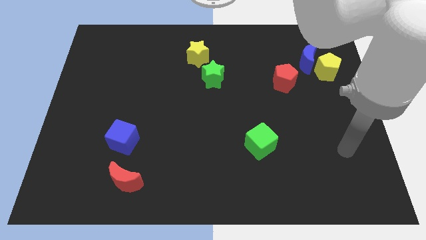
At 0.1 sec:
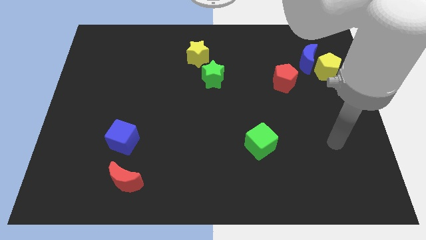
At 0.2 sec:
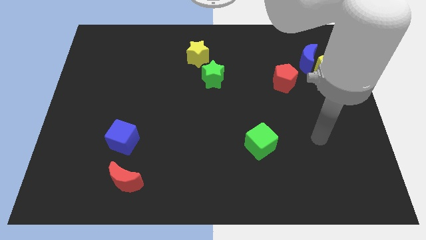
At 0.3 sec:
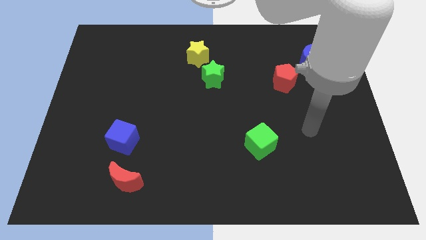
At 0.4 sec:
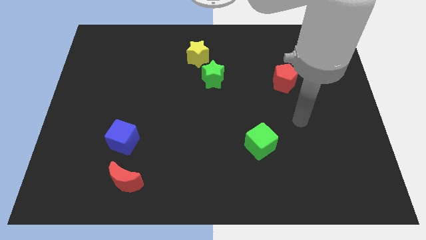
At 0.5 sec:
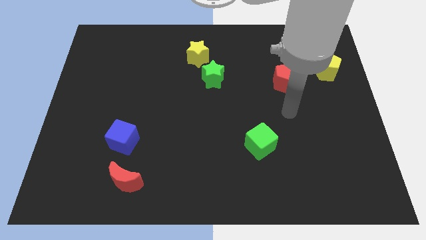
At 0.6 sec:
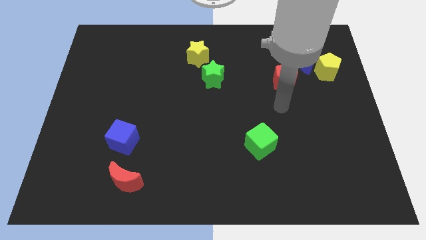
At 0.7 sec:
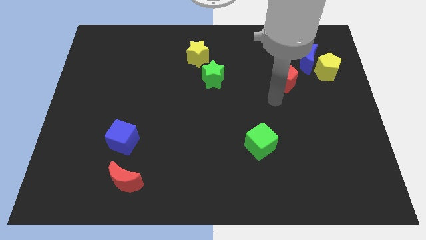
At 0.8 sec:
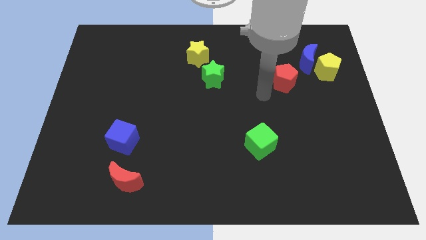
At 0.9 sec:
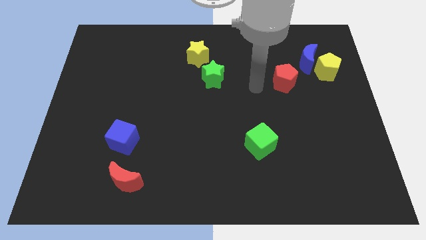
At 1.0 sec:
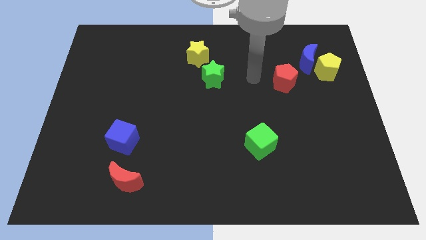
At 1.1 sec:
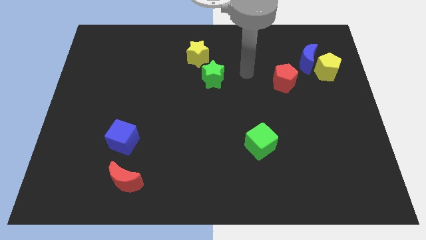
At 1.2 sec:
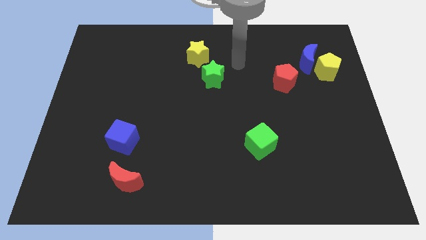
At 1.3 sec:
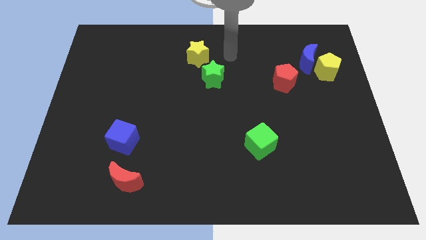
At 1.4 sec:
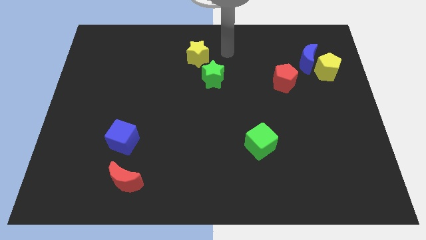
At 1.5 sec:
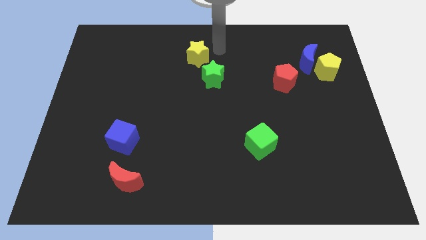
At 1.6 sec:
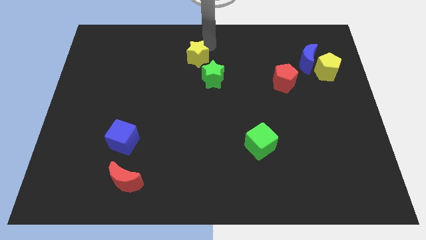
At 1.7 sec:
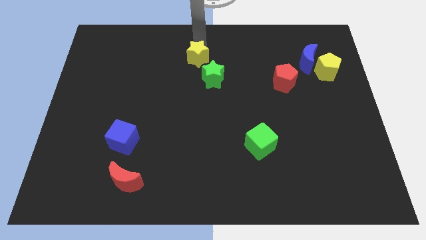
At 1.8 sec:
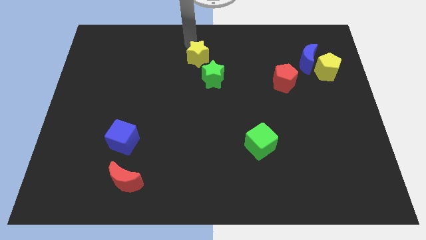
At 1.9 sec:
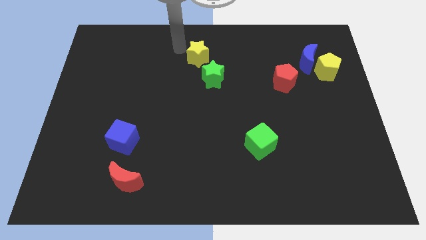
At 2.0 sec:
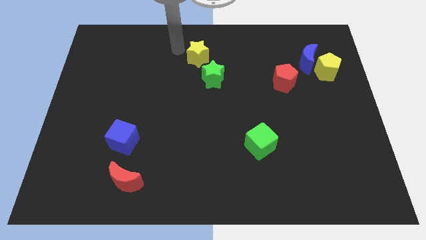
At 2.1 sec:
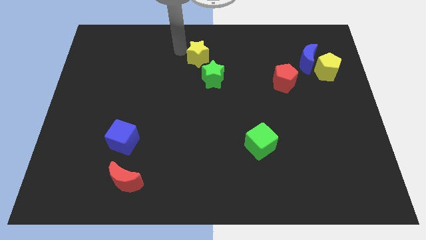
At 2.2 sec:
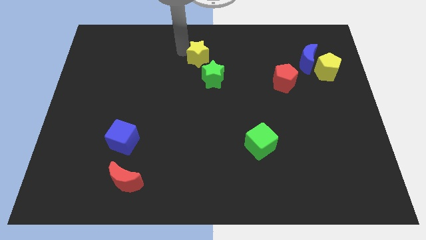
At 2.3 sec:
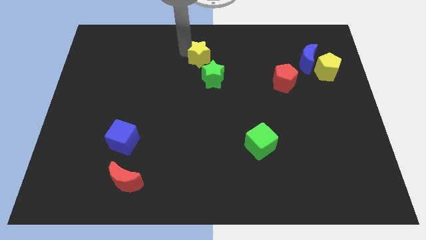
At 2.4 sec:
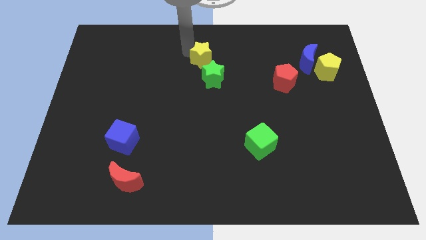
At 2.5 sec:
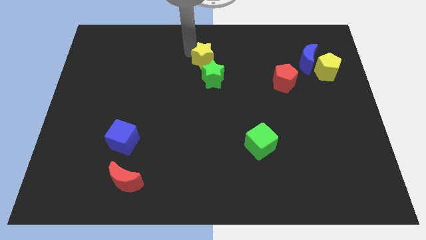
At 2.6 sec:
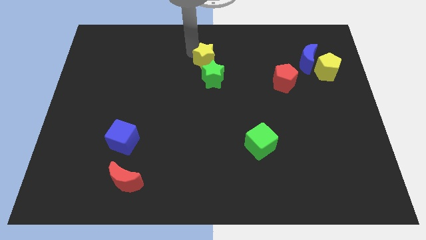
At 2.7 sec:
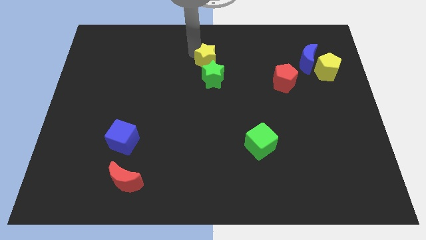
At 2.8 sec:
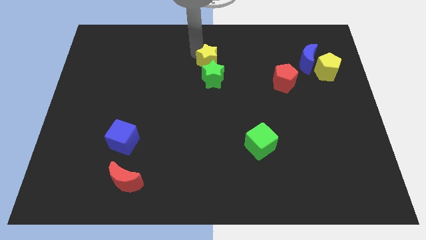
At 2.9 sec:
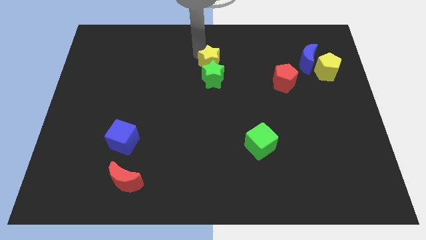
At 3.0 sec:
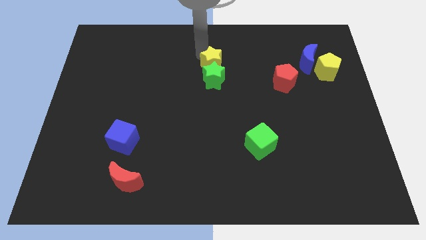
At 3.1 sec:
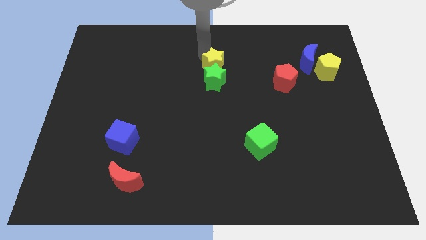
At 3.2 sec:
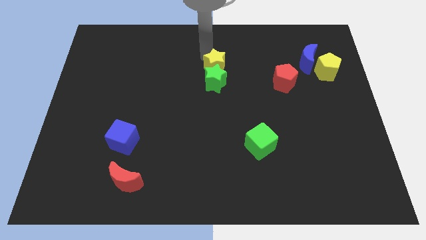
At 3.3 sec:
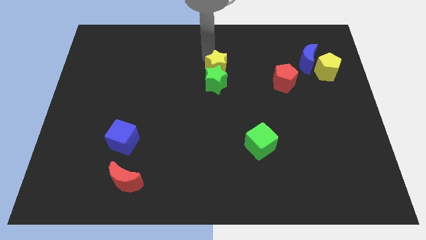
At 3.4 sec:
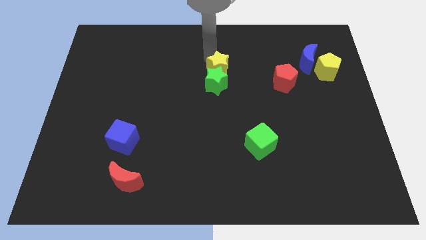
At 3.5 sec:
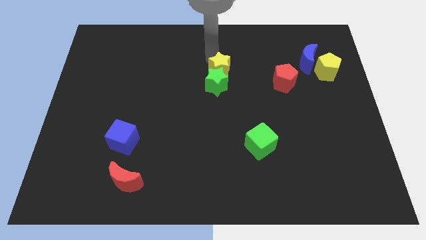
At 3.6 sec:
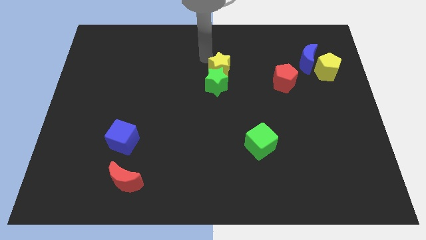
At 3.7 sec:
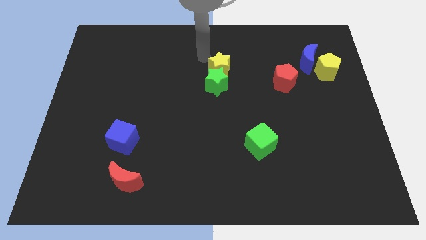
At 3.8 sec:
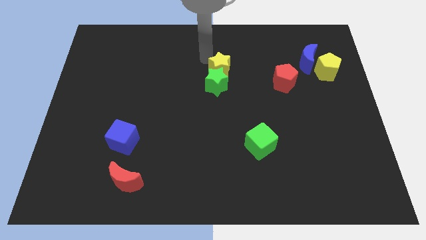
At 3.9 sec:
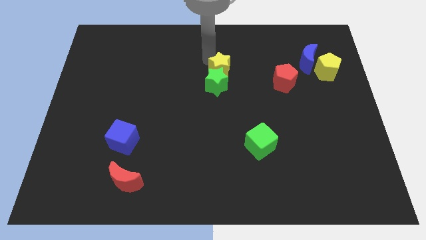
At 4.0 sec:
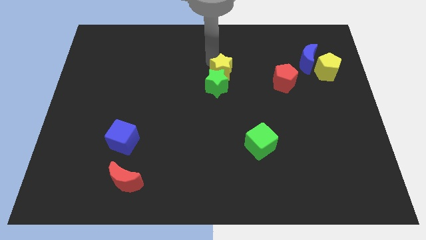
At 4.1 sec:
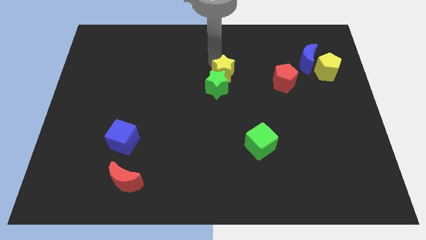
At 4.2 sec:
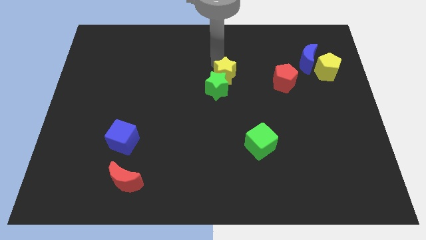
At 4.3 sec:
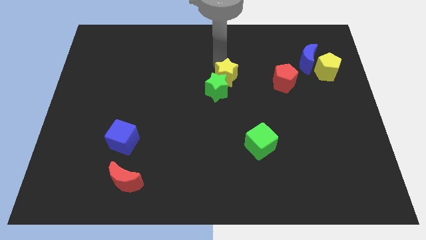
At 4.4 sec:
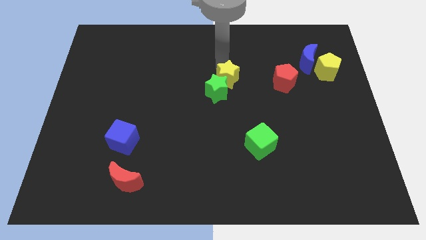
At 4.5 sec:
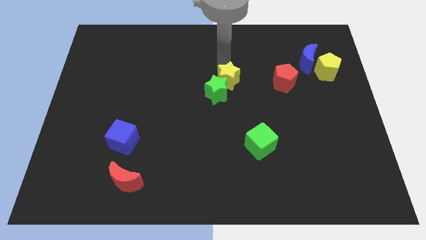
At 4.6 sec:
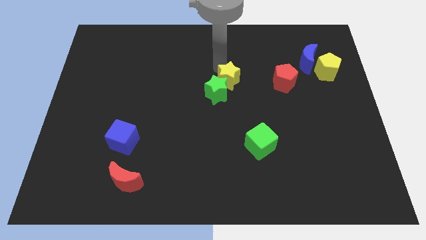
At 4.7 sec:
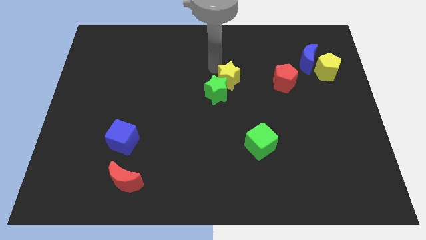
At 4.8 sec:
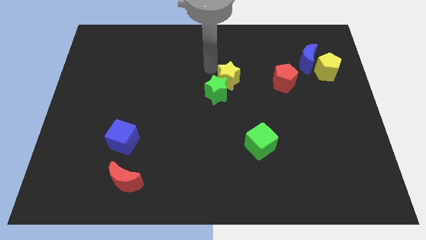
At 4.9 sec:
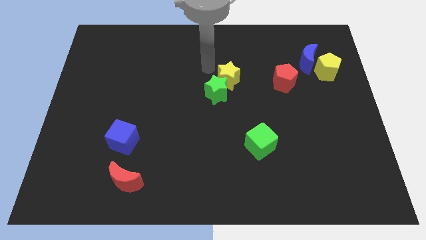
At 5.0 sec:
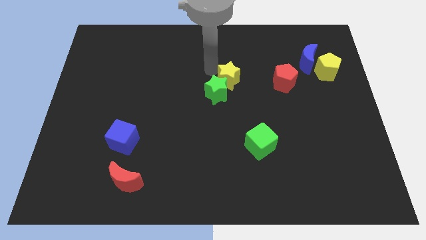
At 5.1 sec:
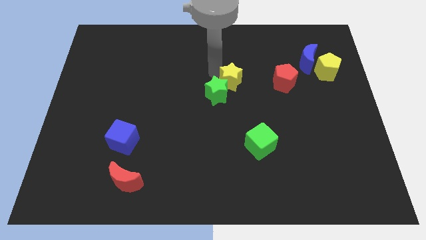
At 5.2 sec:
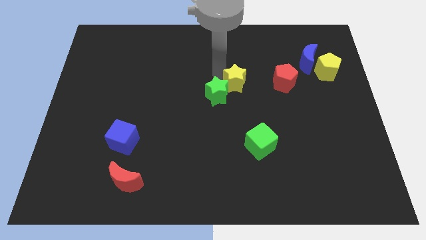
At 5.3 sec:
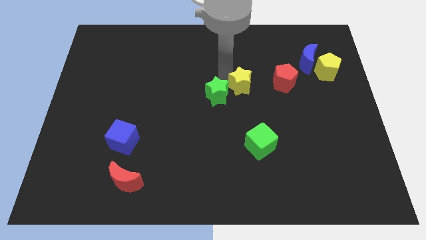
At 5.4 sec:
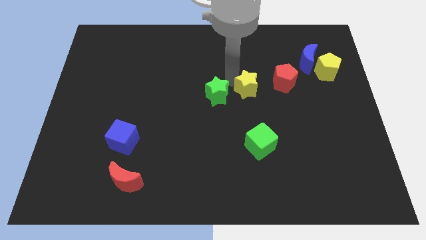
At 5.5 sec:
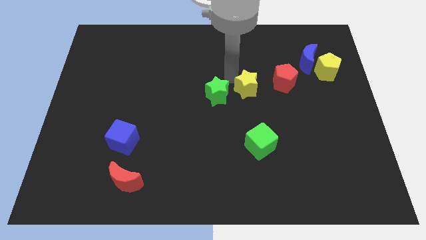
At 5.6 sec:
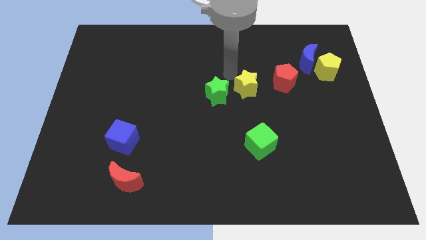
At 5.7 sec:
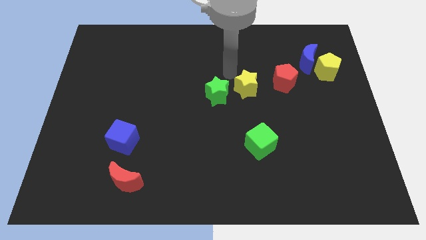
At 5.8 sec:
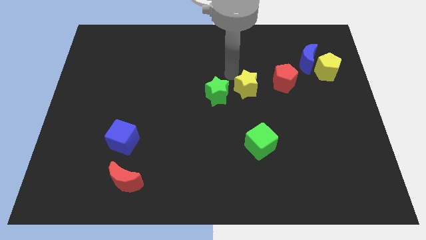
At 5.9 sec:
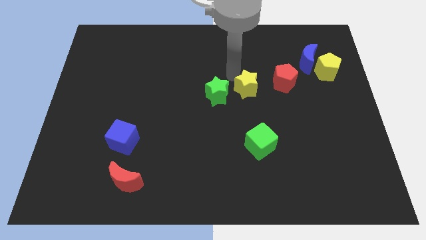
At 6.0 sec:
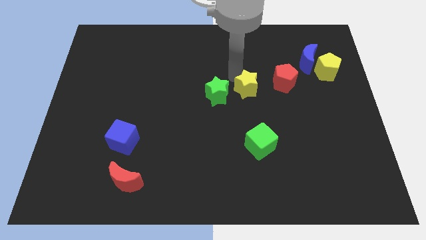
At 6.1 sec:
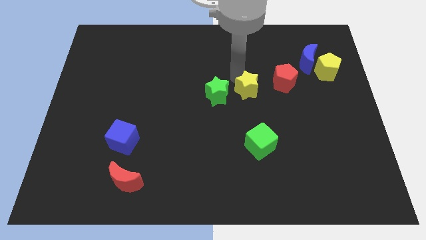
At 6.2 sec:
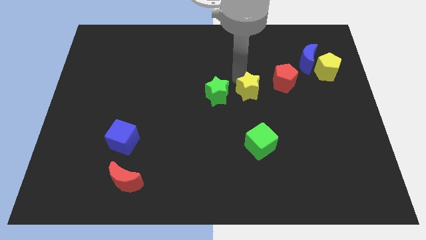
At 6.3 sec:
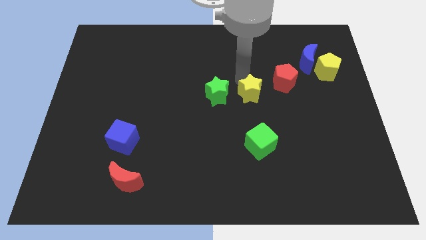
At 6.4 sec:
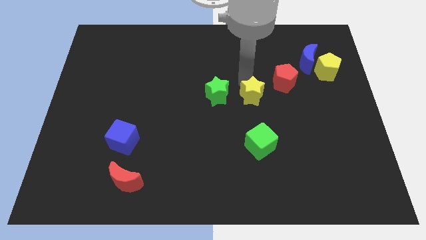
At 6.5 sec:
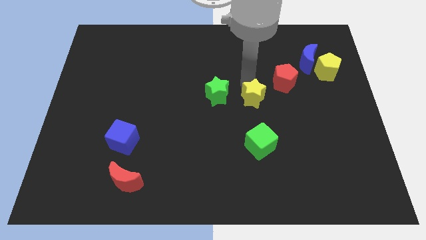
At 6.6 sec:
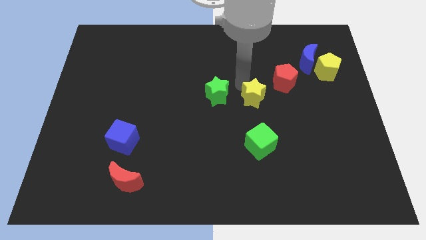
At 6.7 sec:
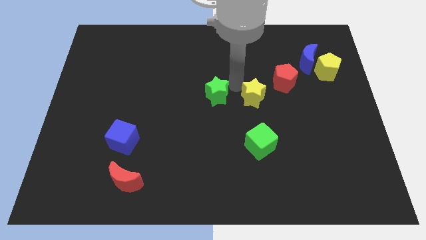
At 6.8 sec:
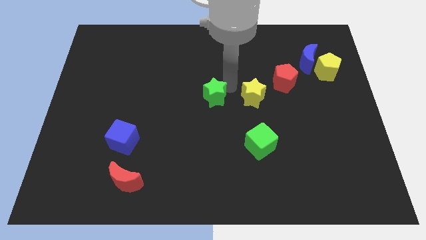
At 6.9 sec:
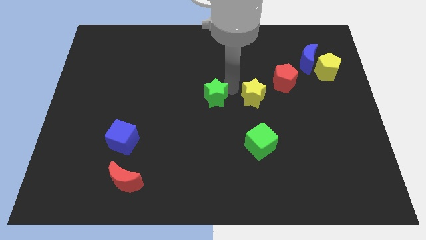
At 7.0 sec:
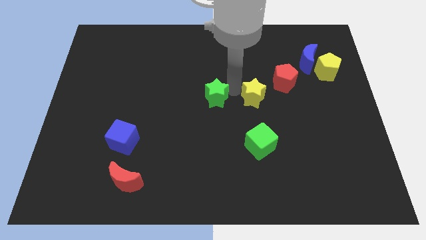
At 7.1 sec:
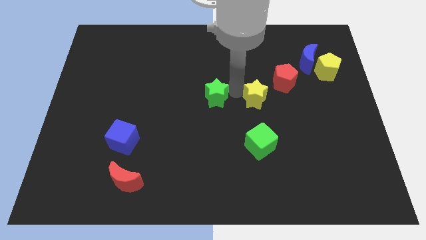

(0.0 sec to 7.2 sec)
slide the yellow star down and then right

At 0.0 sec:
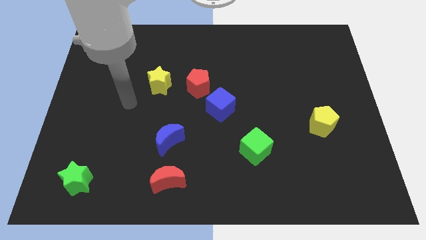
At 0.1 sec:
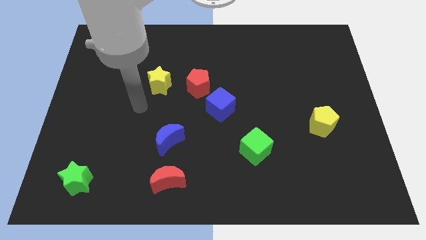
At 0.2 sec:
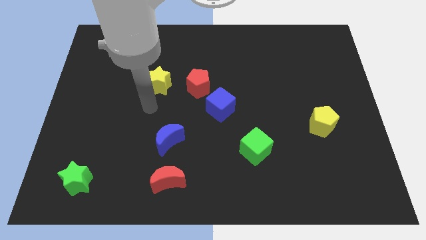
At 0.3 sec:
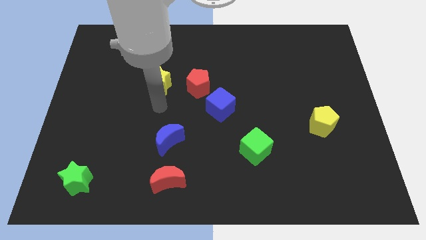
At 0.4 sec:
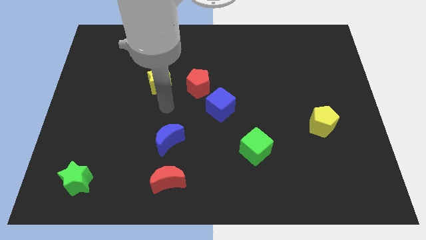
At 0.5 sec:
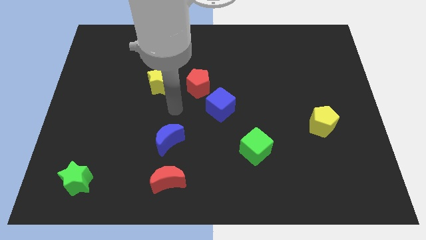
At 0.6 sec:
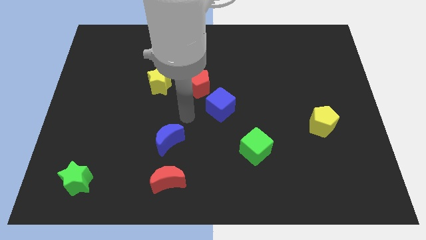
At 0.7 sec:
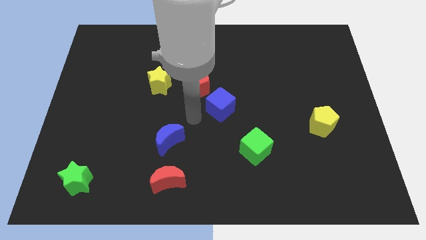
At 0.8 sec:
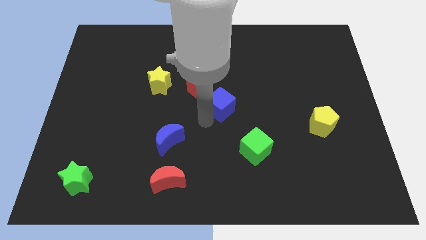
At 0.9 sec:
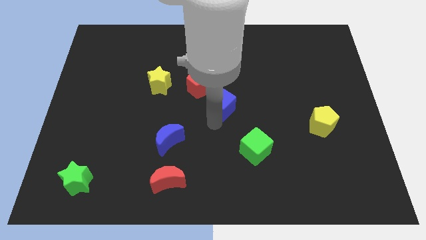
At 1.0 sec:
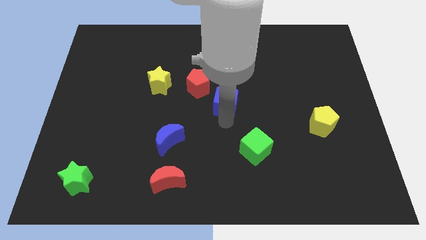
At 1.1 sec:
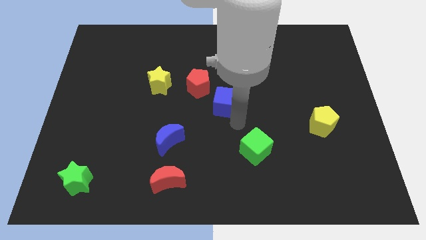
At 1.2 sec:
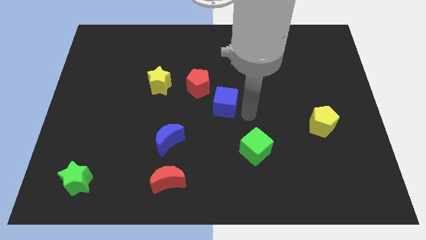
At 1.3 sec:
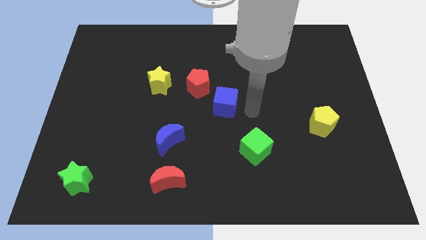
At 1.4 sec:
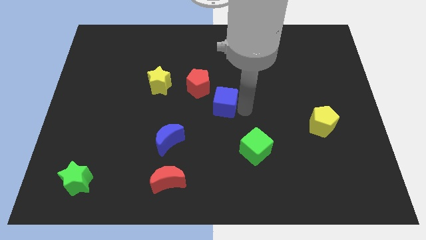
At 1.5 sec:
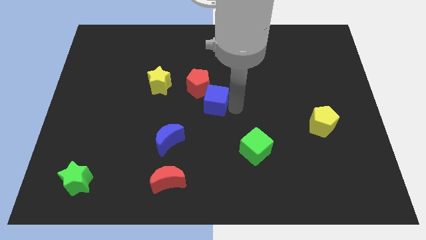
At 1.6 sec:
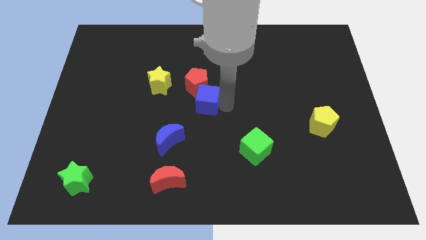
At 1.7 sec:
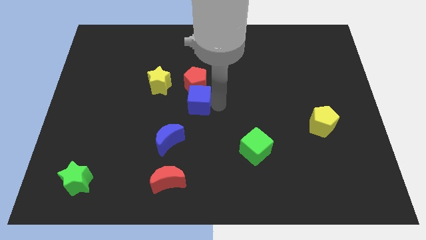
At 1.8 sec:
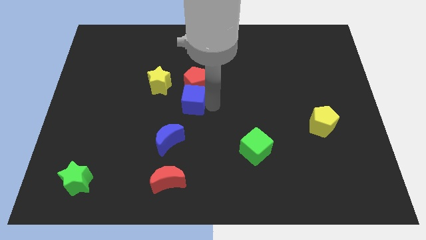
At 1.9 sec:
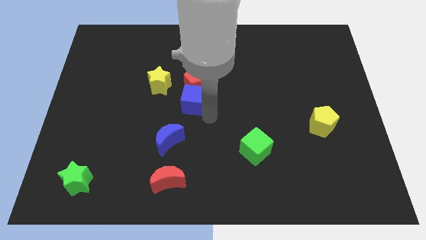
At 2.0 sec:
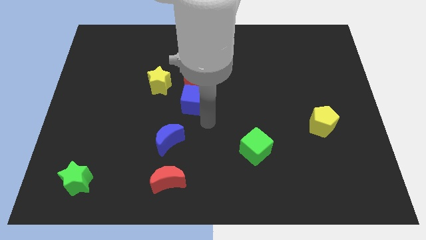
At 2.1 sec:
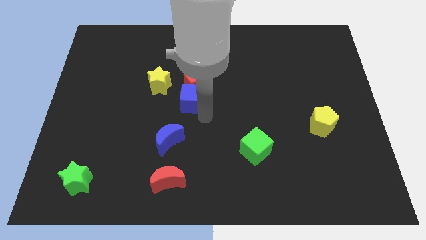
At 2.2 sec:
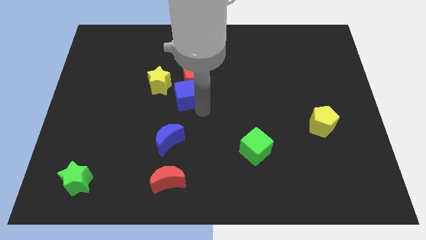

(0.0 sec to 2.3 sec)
slightly push the blue cube upwards and left
